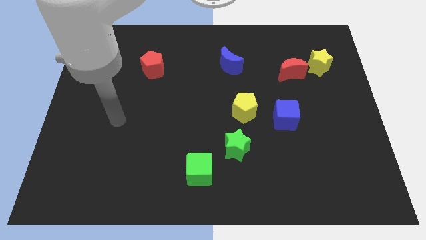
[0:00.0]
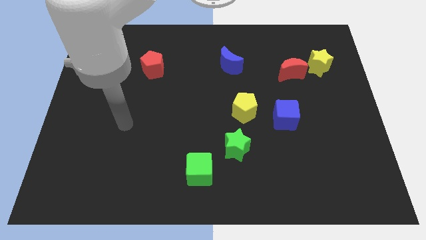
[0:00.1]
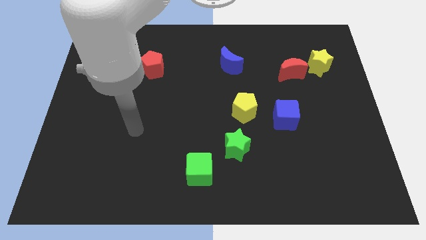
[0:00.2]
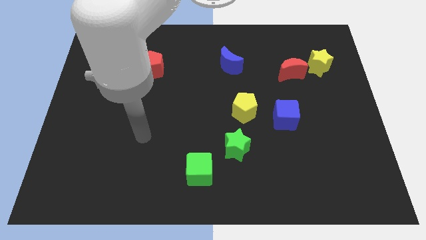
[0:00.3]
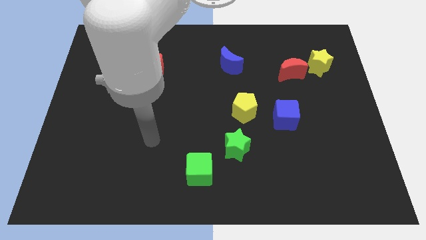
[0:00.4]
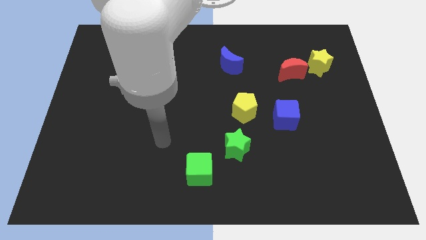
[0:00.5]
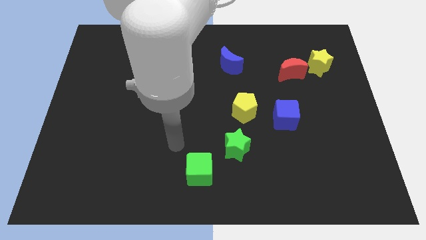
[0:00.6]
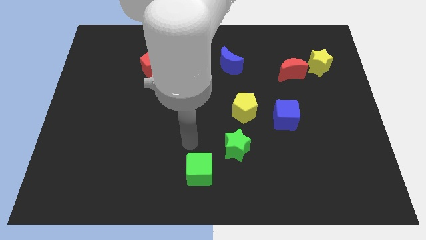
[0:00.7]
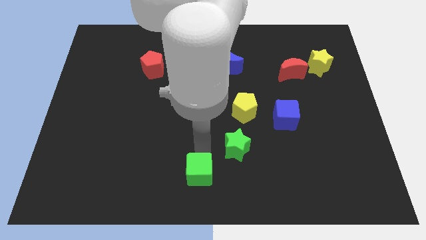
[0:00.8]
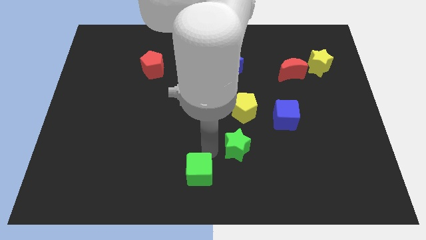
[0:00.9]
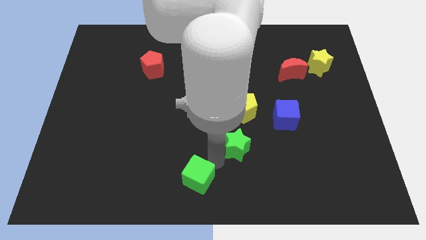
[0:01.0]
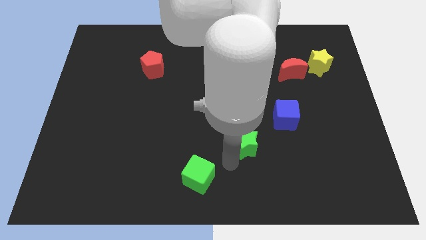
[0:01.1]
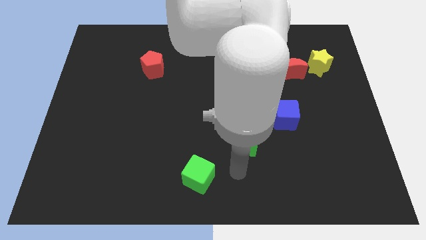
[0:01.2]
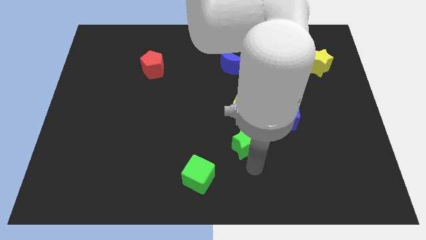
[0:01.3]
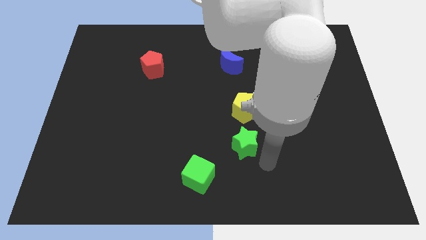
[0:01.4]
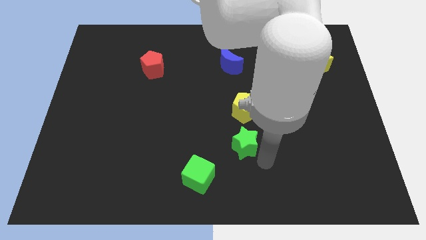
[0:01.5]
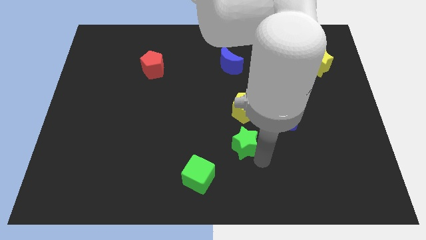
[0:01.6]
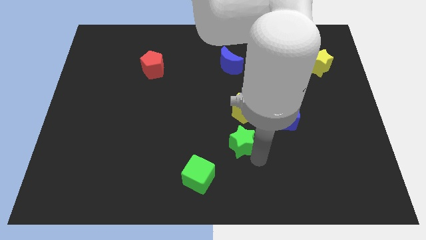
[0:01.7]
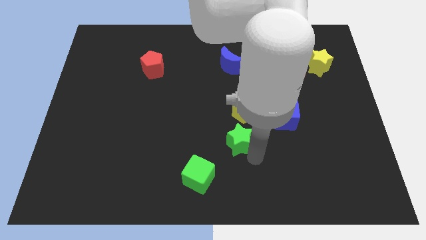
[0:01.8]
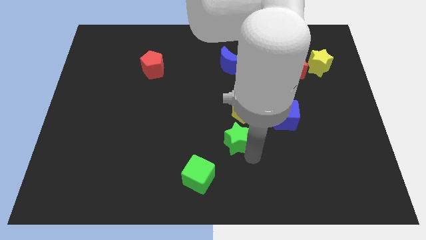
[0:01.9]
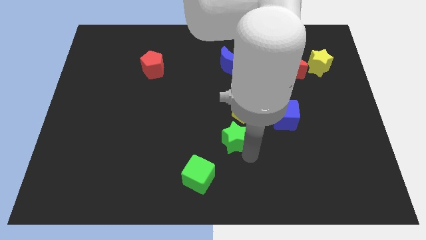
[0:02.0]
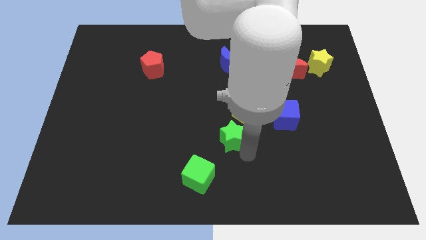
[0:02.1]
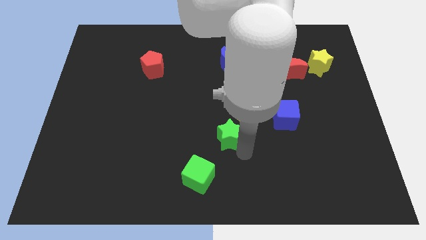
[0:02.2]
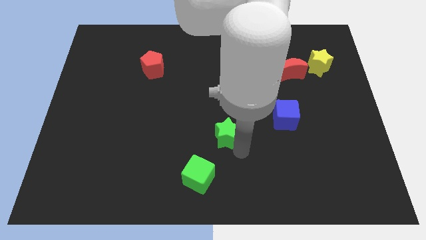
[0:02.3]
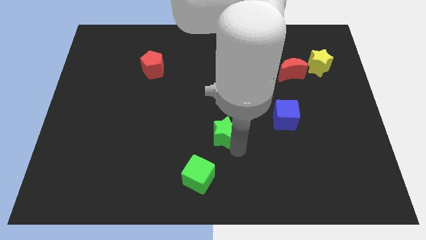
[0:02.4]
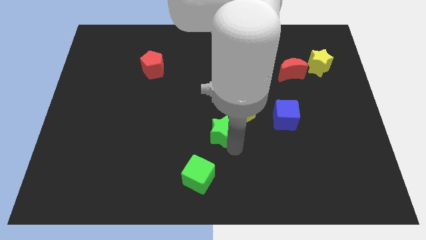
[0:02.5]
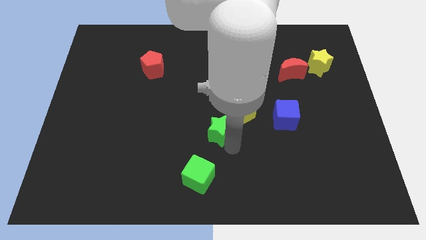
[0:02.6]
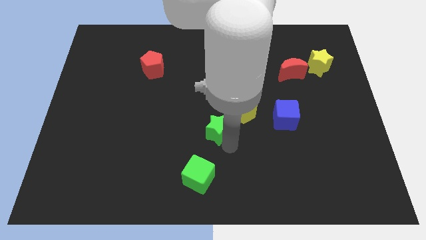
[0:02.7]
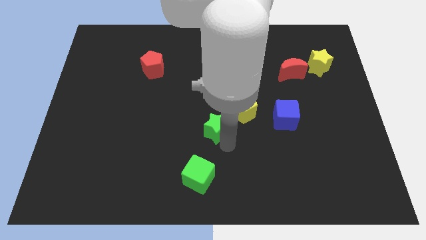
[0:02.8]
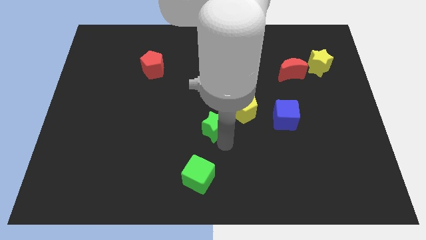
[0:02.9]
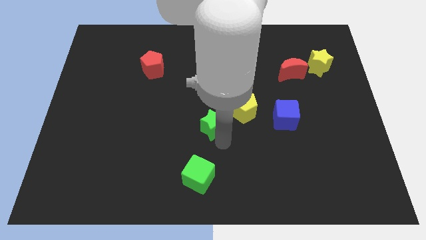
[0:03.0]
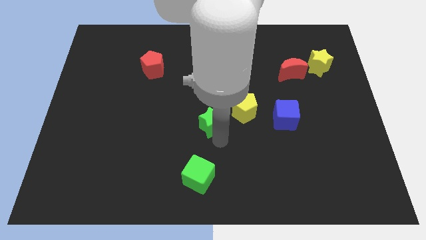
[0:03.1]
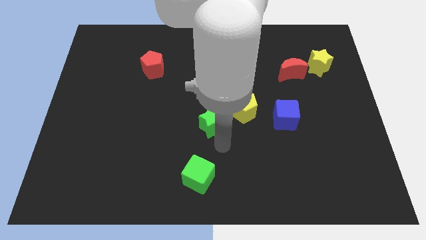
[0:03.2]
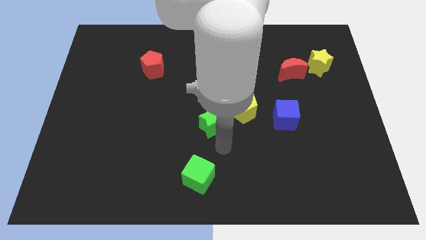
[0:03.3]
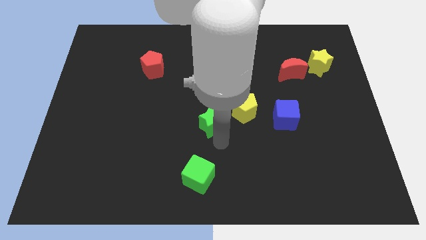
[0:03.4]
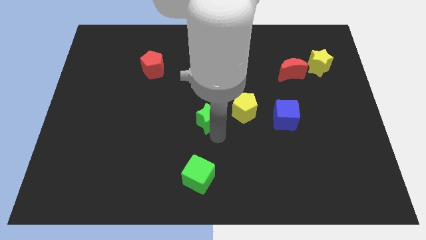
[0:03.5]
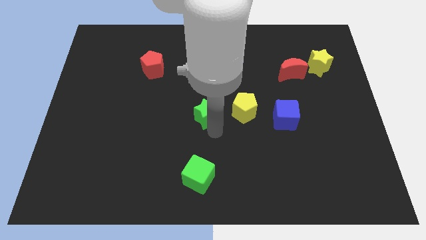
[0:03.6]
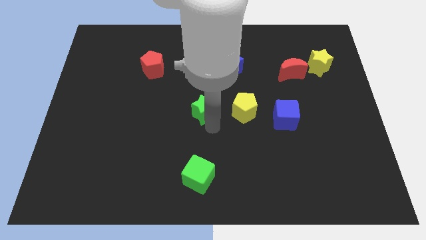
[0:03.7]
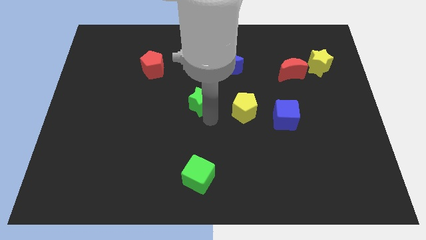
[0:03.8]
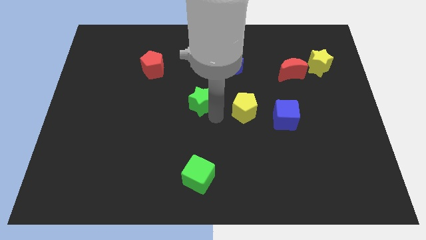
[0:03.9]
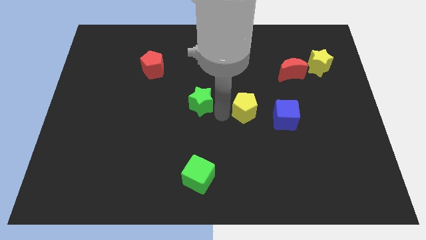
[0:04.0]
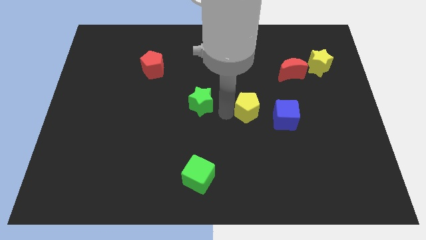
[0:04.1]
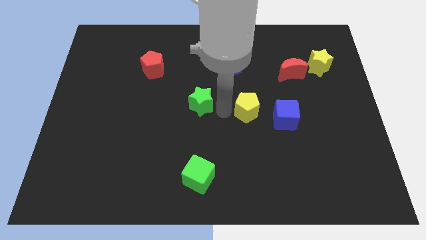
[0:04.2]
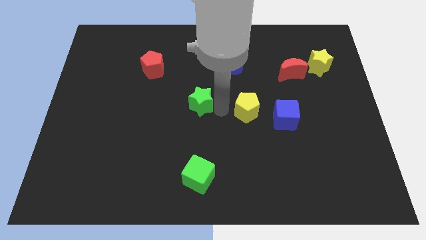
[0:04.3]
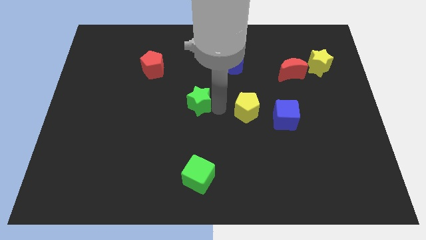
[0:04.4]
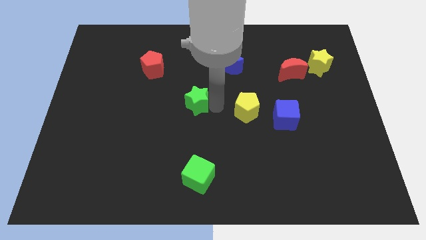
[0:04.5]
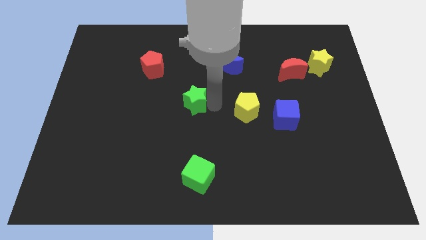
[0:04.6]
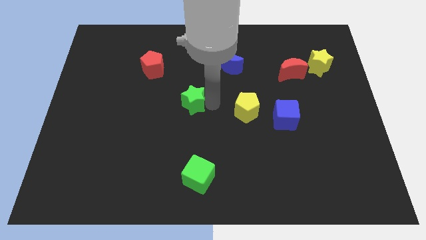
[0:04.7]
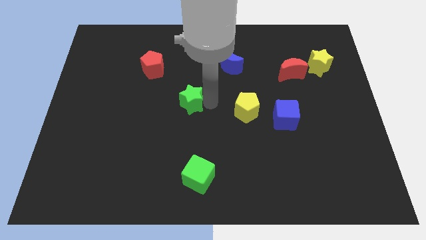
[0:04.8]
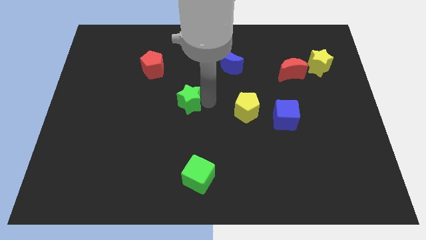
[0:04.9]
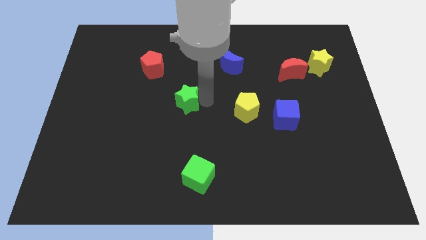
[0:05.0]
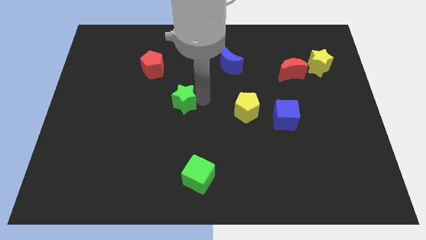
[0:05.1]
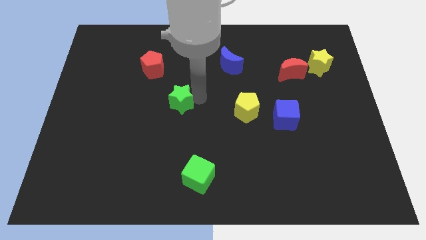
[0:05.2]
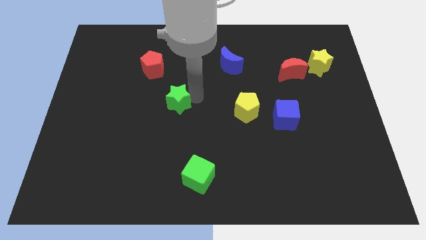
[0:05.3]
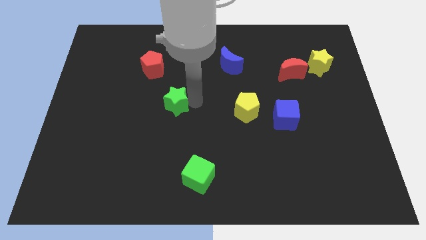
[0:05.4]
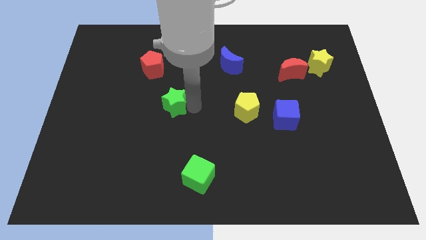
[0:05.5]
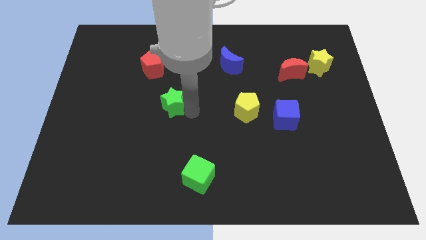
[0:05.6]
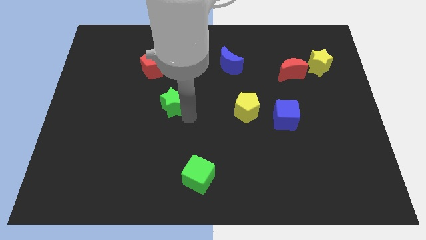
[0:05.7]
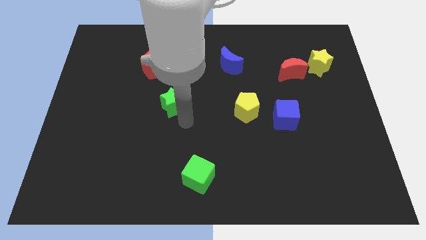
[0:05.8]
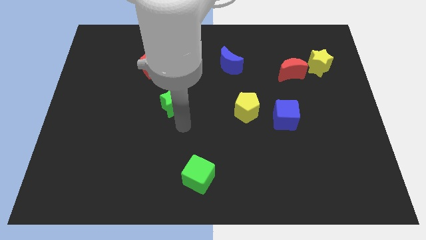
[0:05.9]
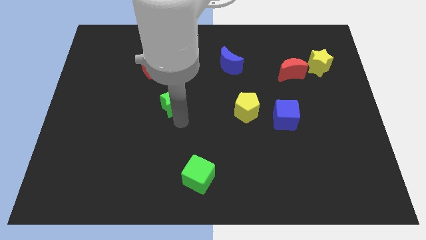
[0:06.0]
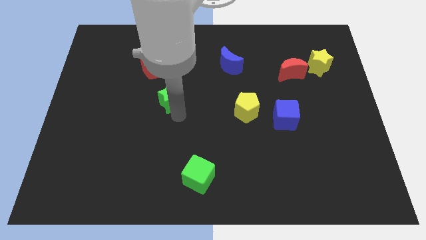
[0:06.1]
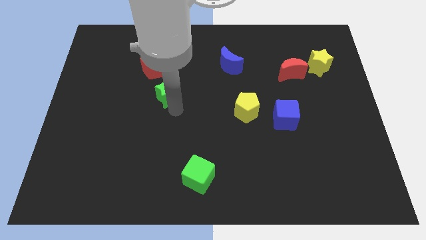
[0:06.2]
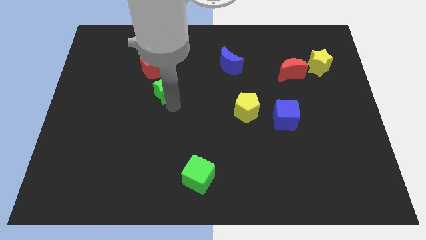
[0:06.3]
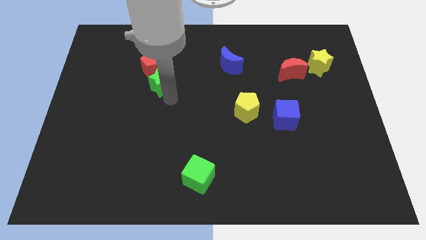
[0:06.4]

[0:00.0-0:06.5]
push the green star towards the red pentagon

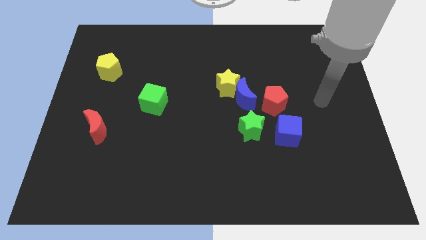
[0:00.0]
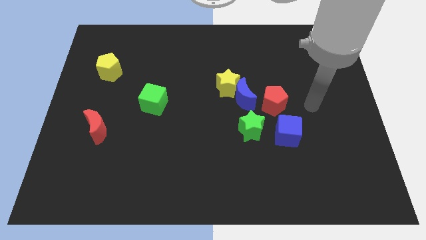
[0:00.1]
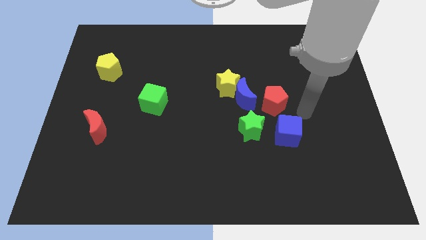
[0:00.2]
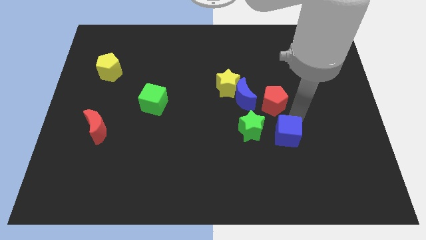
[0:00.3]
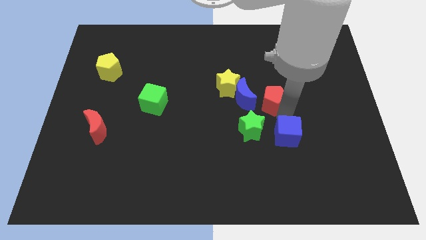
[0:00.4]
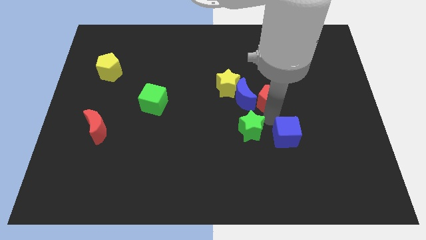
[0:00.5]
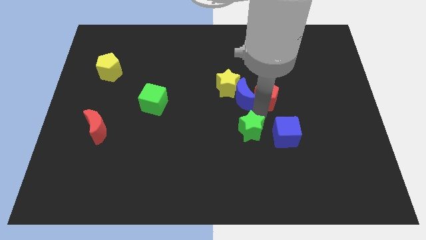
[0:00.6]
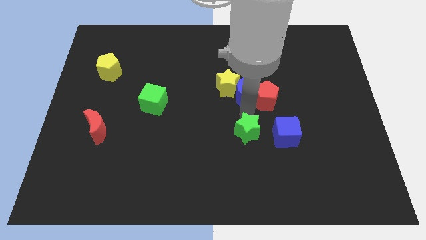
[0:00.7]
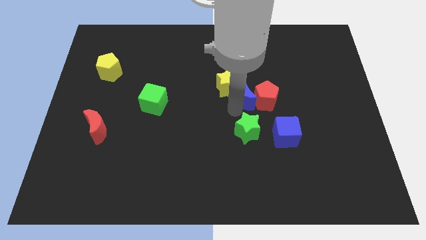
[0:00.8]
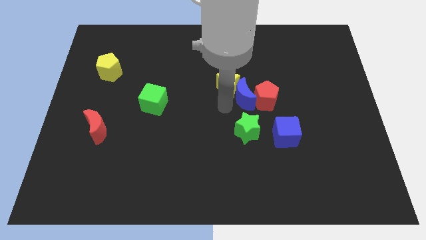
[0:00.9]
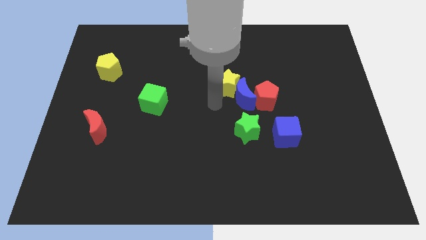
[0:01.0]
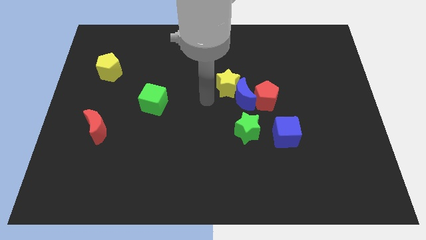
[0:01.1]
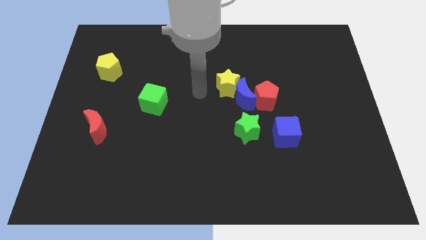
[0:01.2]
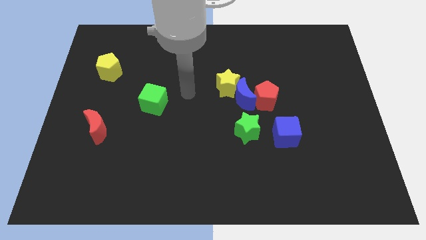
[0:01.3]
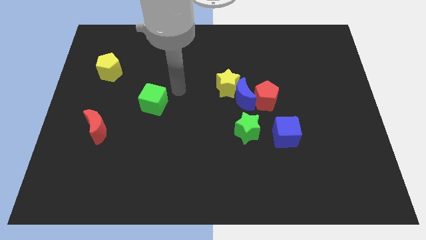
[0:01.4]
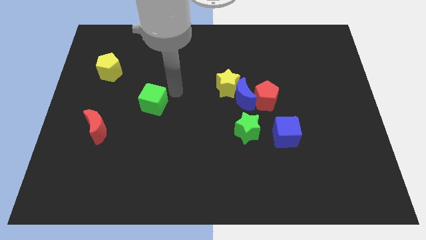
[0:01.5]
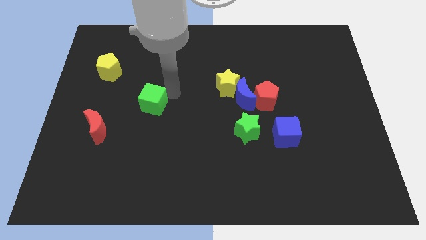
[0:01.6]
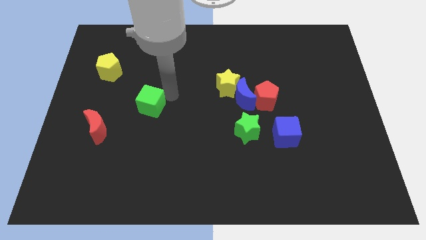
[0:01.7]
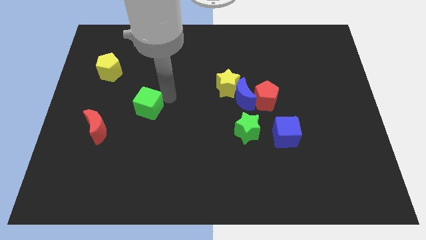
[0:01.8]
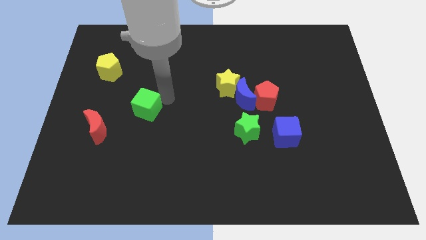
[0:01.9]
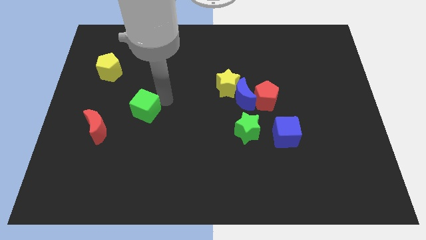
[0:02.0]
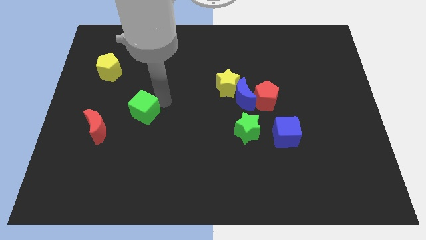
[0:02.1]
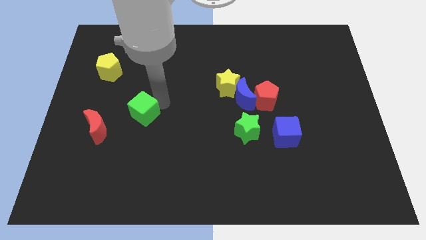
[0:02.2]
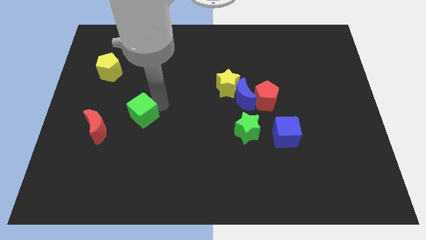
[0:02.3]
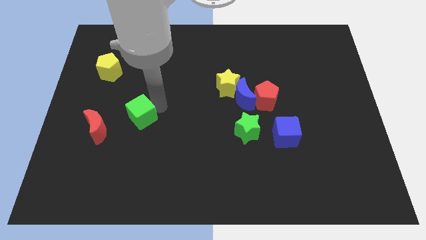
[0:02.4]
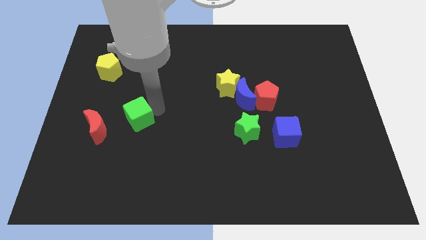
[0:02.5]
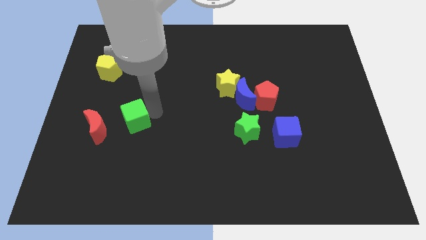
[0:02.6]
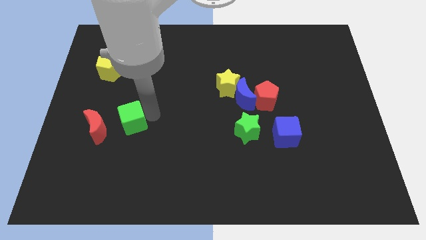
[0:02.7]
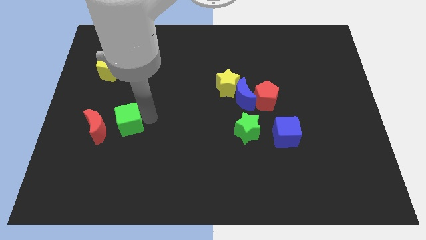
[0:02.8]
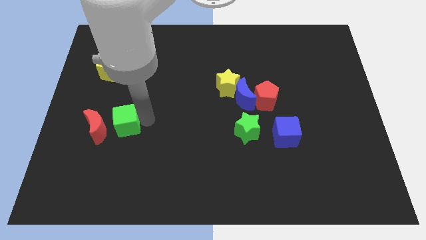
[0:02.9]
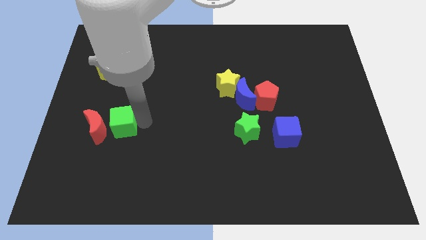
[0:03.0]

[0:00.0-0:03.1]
push the green cube towards the red moon
